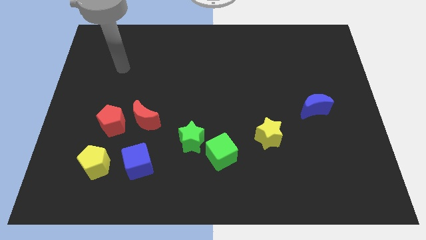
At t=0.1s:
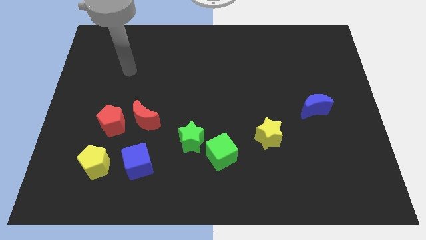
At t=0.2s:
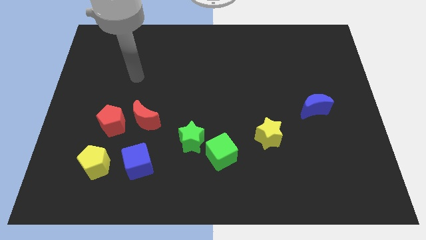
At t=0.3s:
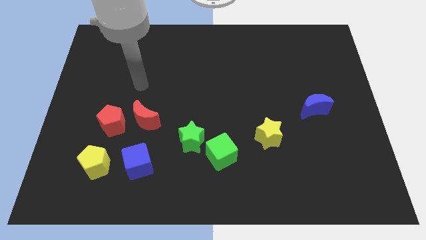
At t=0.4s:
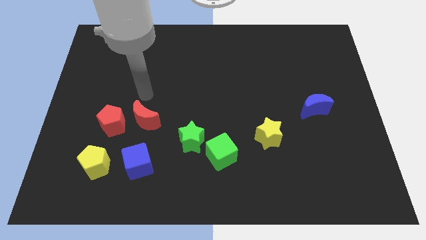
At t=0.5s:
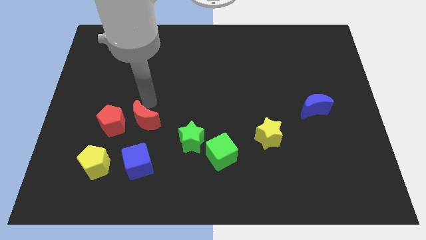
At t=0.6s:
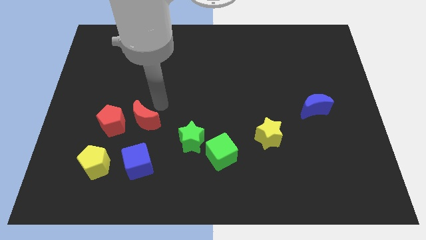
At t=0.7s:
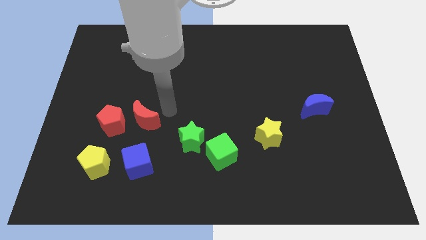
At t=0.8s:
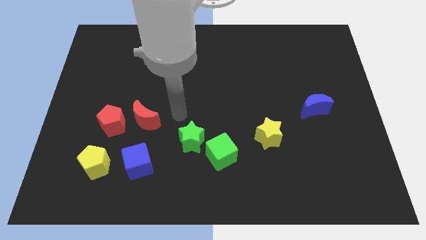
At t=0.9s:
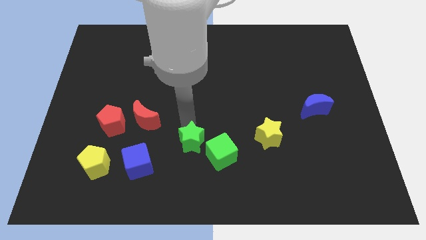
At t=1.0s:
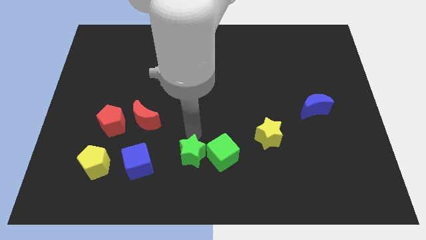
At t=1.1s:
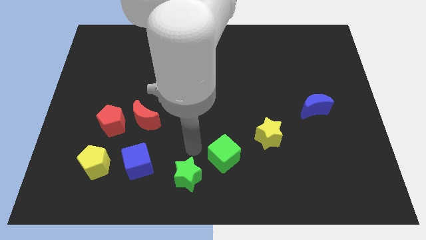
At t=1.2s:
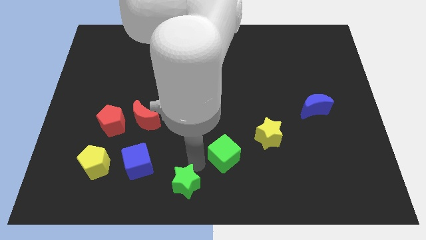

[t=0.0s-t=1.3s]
move the green cube away from the green star

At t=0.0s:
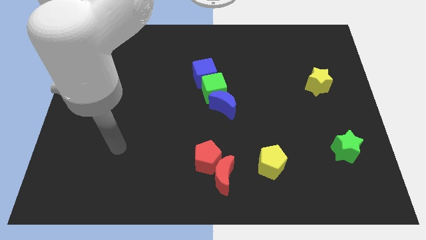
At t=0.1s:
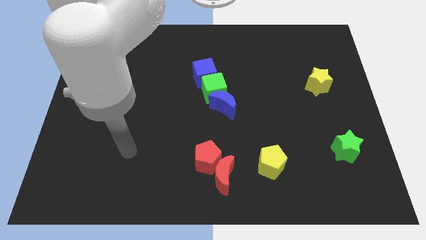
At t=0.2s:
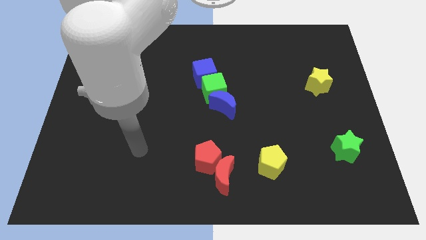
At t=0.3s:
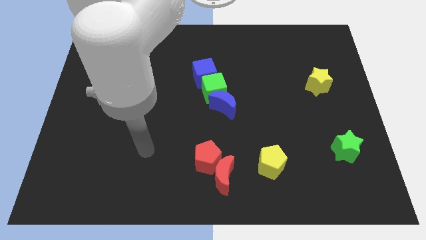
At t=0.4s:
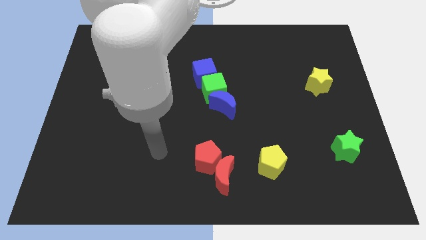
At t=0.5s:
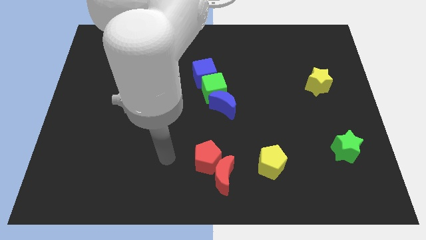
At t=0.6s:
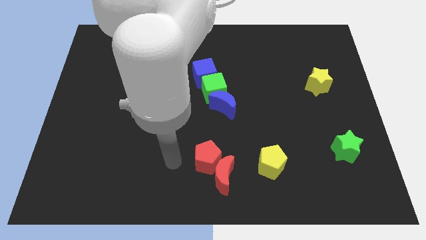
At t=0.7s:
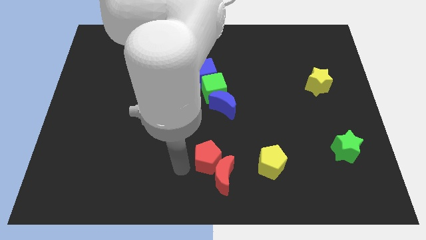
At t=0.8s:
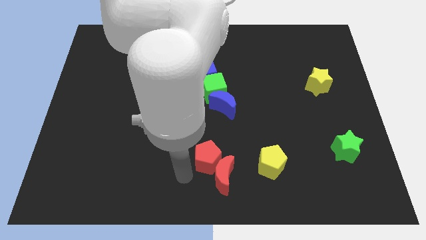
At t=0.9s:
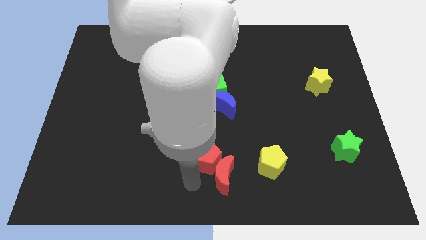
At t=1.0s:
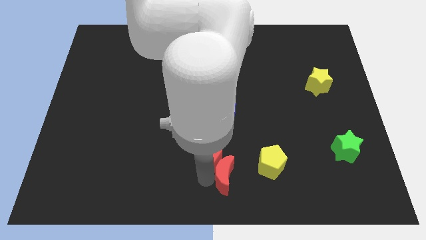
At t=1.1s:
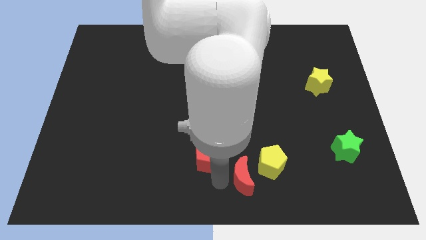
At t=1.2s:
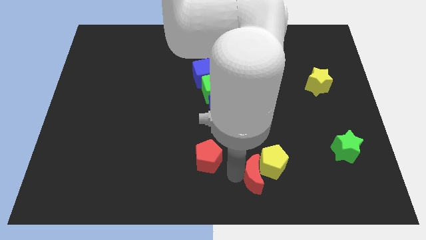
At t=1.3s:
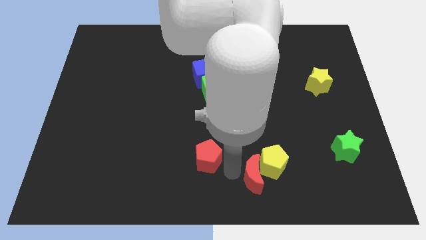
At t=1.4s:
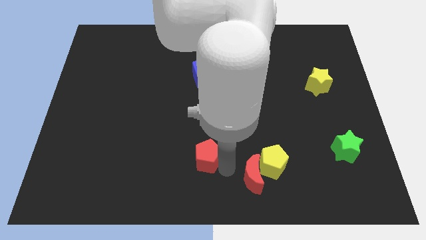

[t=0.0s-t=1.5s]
separate the red pentagon from the red moon

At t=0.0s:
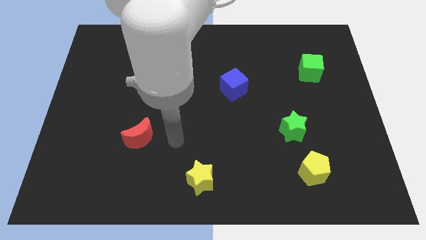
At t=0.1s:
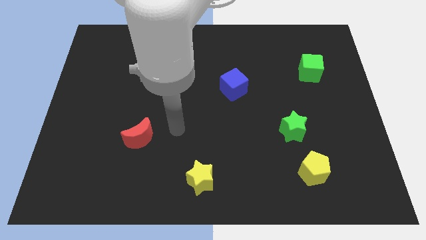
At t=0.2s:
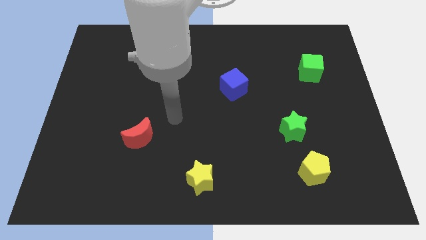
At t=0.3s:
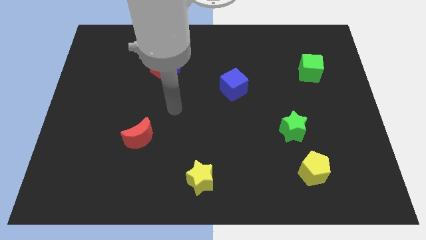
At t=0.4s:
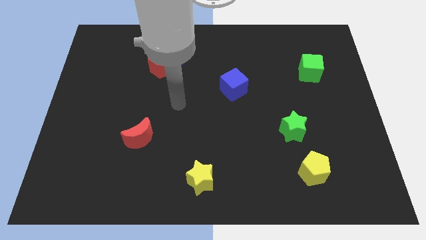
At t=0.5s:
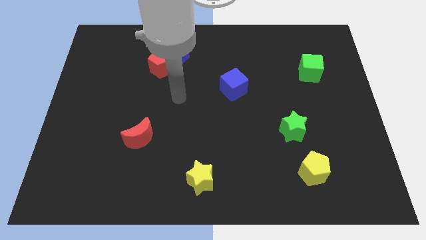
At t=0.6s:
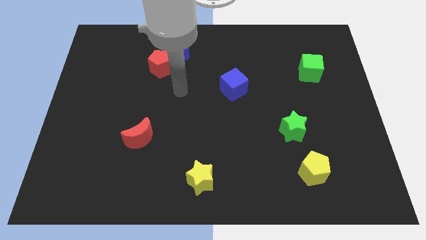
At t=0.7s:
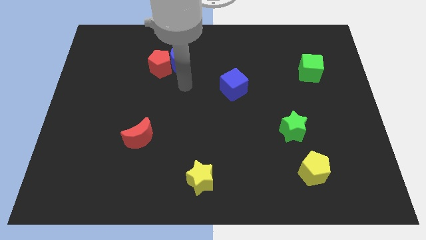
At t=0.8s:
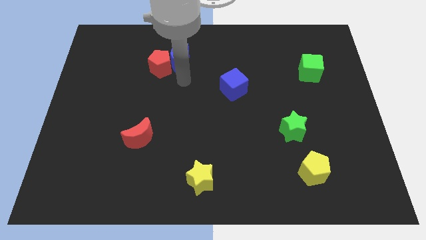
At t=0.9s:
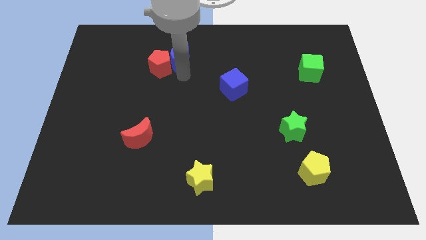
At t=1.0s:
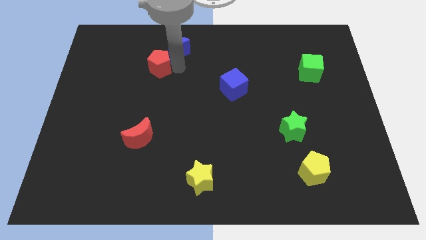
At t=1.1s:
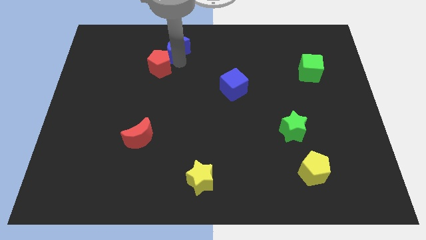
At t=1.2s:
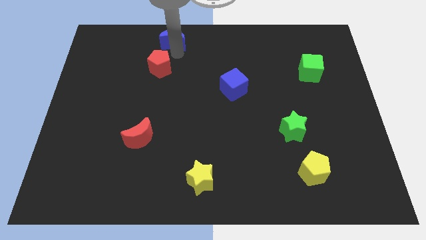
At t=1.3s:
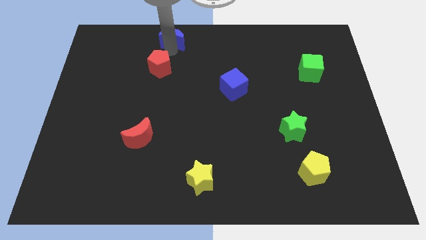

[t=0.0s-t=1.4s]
separate the red pentagon from the blue moon

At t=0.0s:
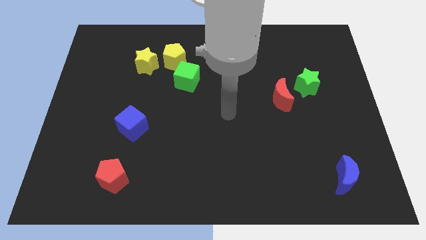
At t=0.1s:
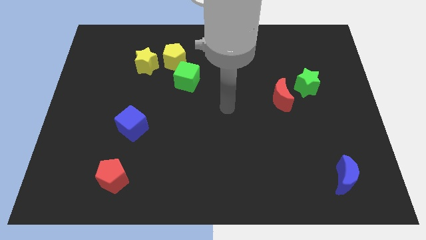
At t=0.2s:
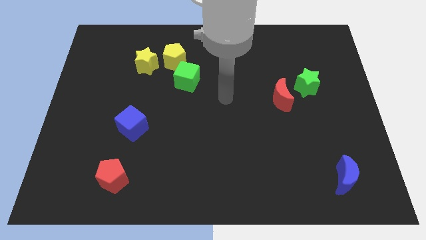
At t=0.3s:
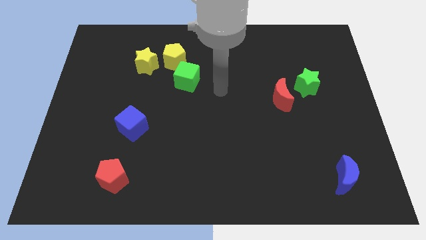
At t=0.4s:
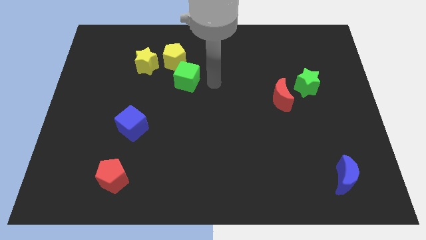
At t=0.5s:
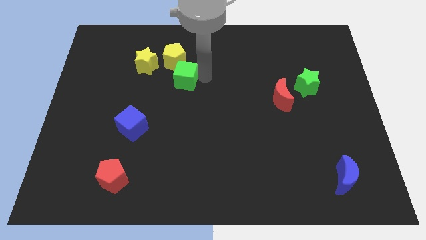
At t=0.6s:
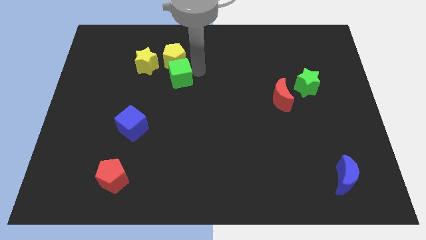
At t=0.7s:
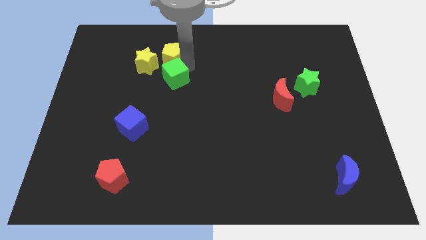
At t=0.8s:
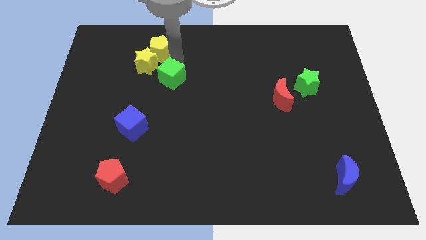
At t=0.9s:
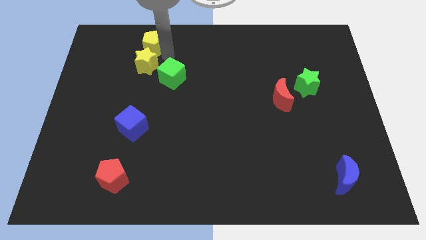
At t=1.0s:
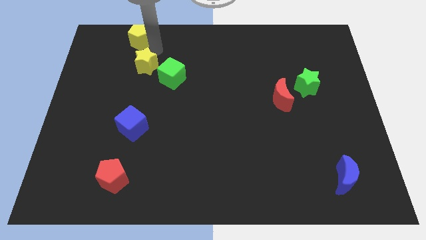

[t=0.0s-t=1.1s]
move the yellow star away from the yellow pentagon

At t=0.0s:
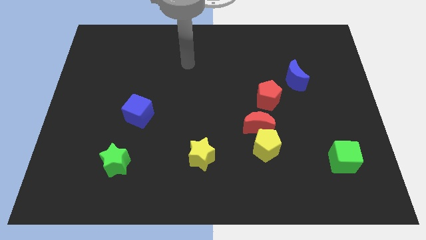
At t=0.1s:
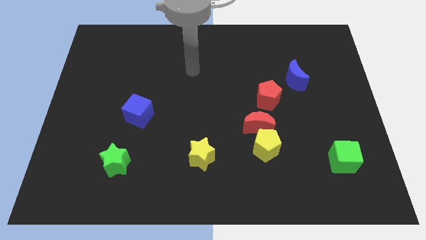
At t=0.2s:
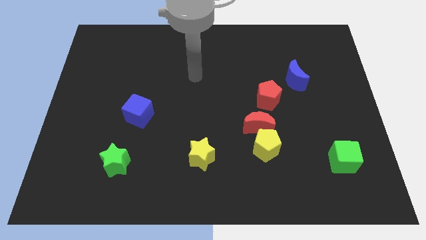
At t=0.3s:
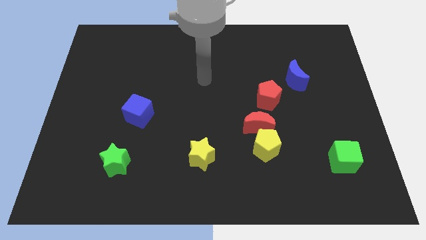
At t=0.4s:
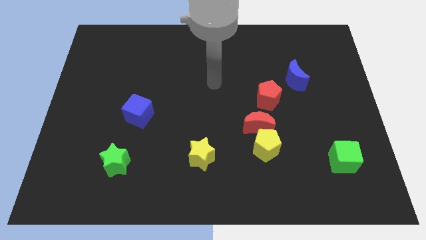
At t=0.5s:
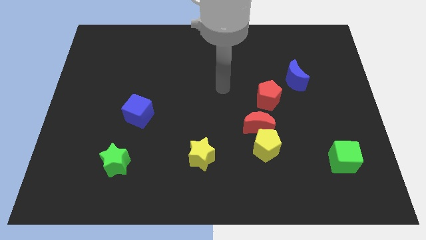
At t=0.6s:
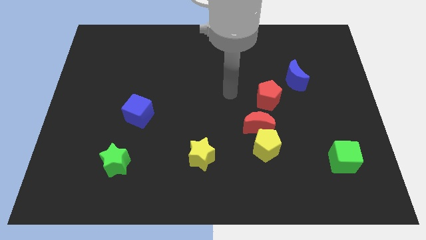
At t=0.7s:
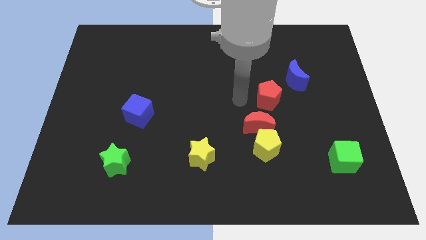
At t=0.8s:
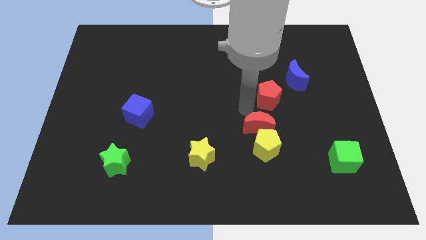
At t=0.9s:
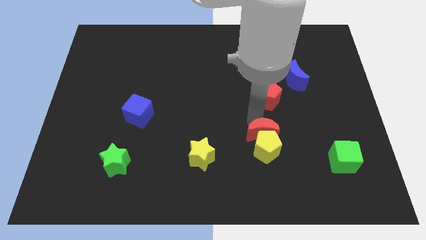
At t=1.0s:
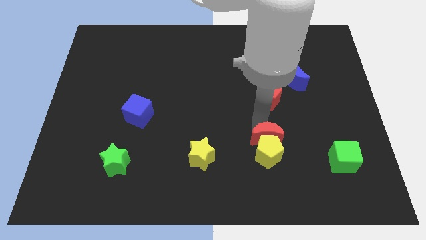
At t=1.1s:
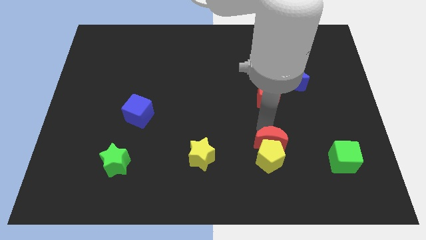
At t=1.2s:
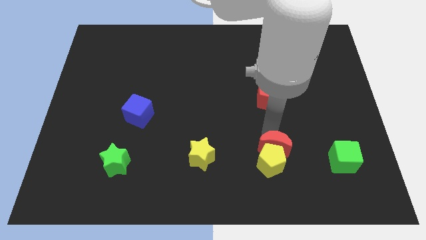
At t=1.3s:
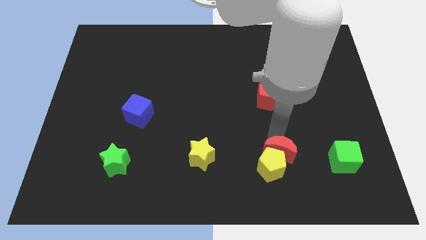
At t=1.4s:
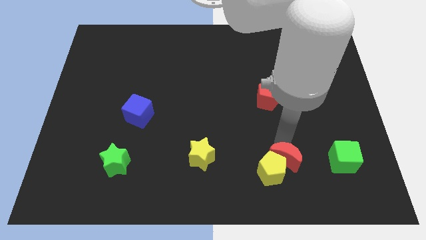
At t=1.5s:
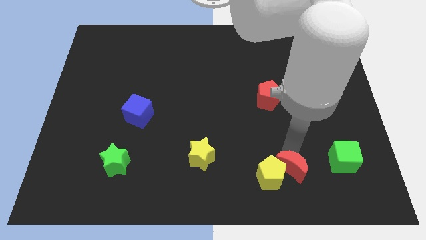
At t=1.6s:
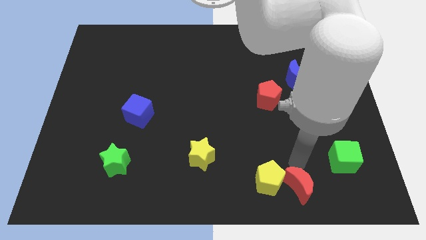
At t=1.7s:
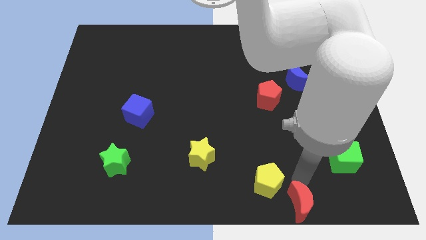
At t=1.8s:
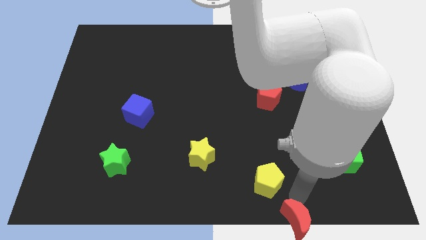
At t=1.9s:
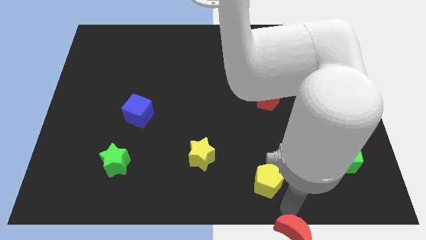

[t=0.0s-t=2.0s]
separate the yellow pentagon from the red moon

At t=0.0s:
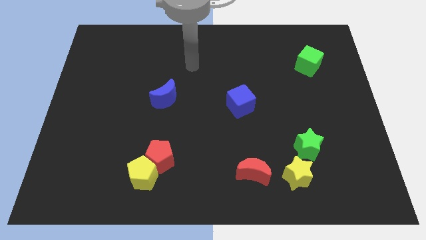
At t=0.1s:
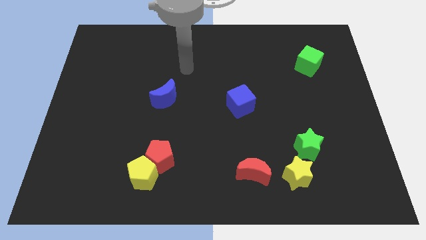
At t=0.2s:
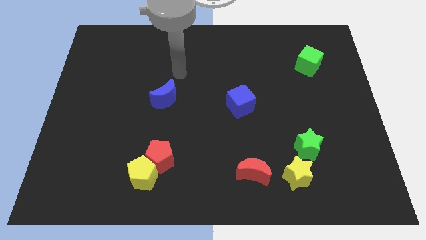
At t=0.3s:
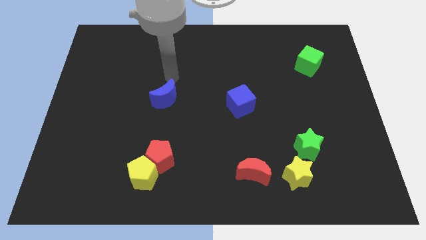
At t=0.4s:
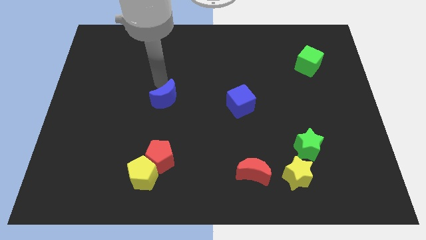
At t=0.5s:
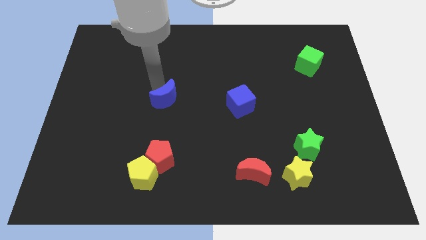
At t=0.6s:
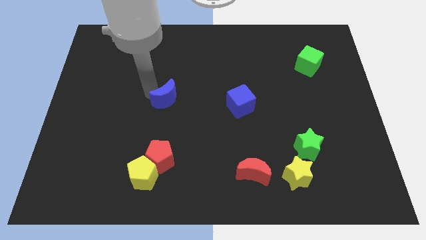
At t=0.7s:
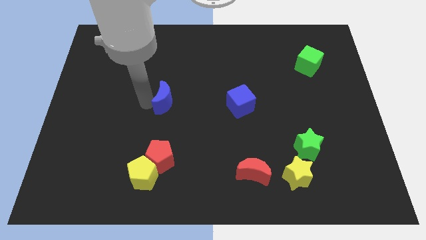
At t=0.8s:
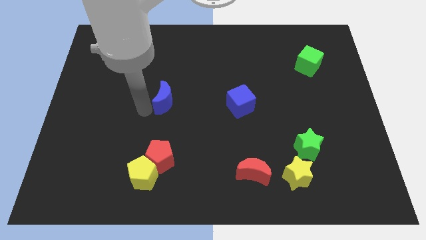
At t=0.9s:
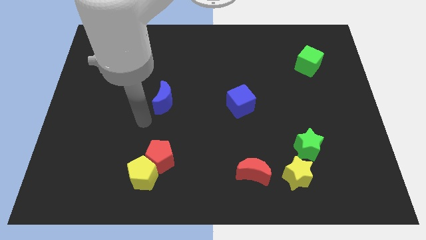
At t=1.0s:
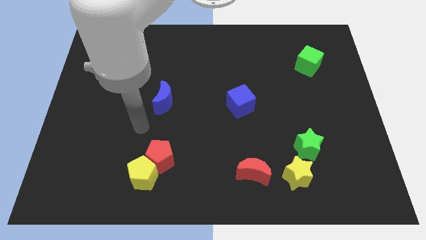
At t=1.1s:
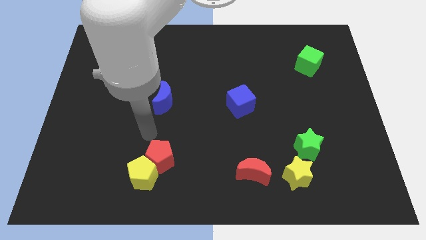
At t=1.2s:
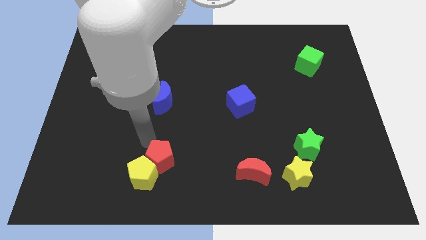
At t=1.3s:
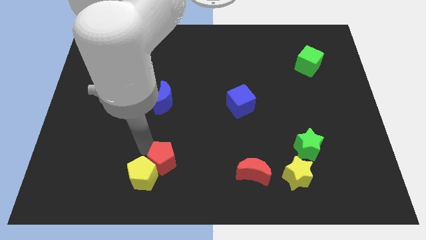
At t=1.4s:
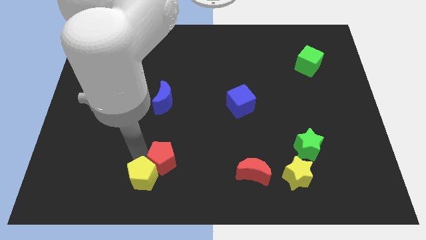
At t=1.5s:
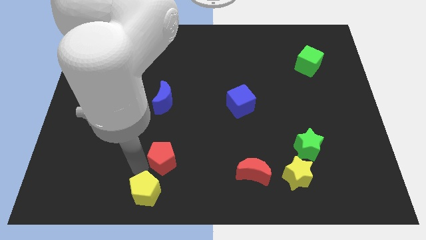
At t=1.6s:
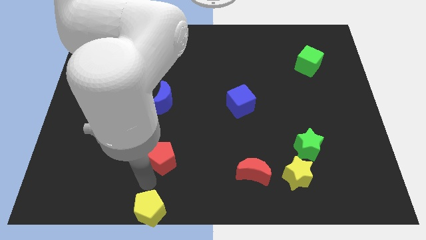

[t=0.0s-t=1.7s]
move the red pentagon away from the yellow pentagon

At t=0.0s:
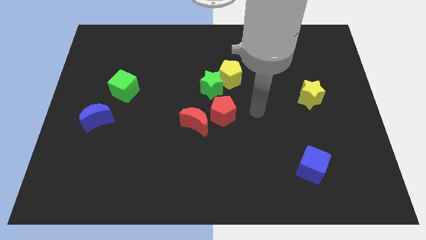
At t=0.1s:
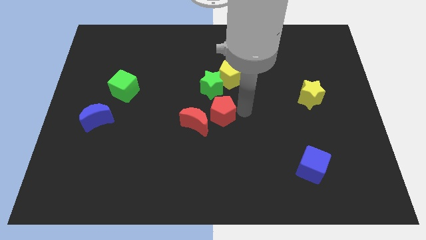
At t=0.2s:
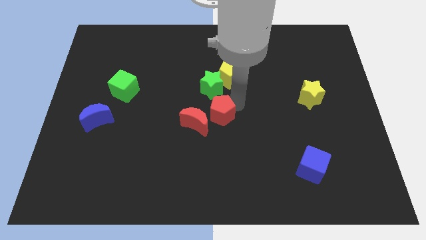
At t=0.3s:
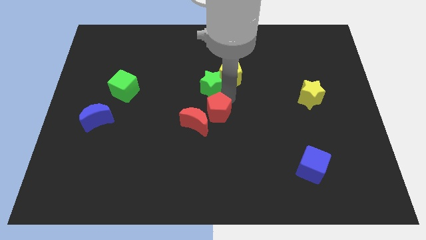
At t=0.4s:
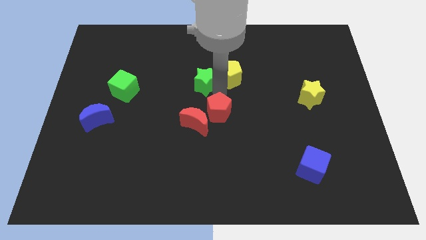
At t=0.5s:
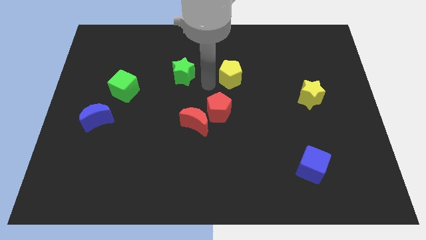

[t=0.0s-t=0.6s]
separate the yellow pentagon from the green star
